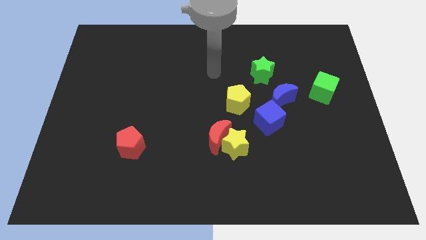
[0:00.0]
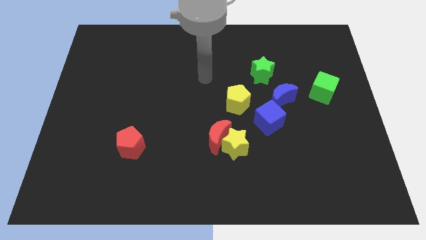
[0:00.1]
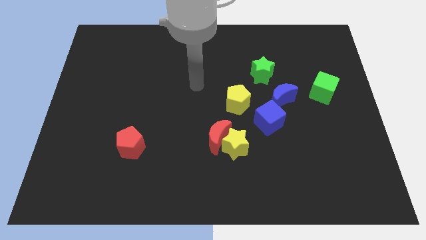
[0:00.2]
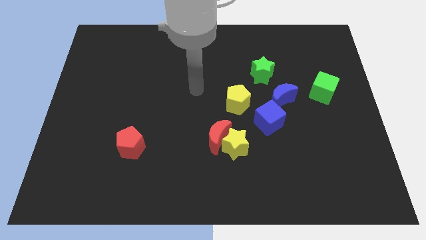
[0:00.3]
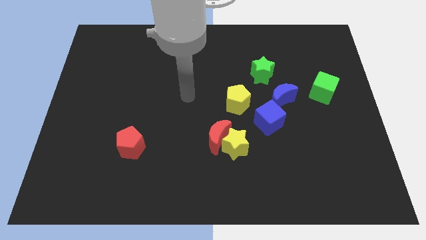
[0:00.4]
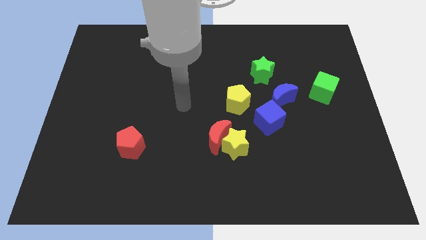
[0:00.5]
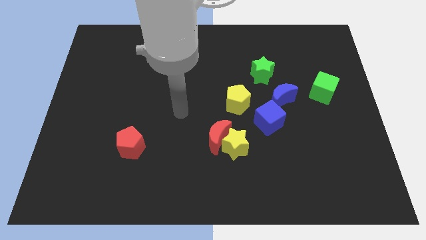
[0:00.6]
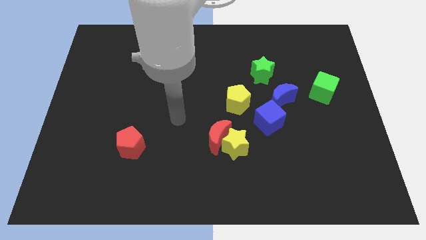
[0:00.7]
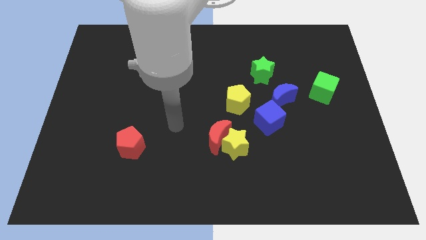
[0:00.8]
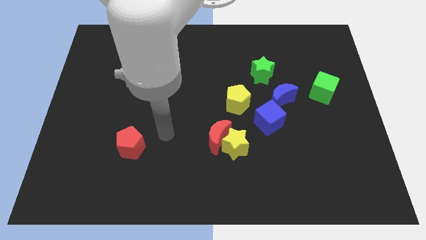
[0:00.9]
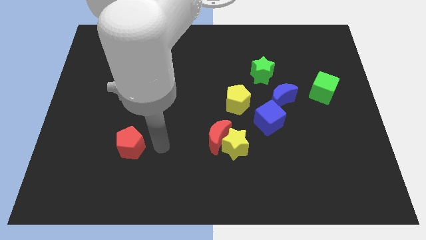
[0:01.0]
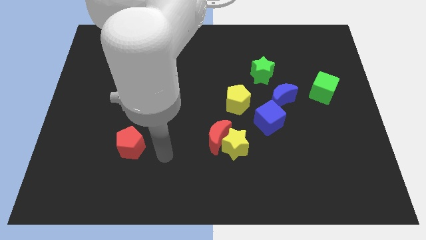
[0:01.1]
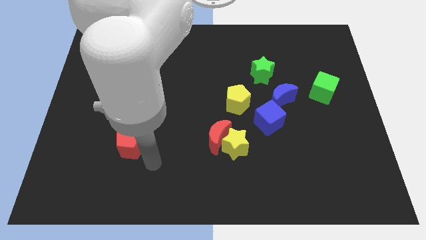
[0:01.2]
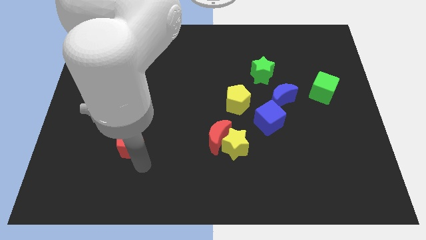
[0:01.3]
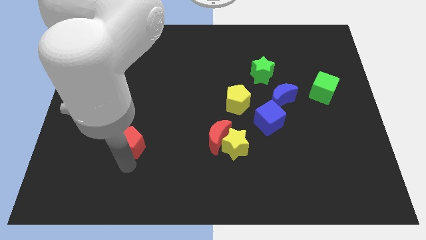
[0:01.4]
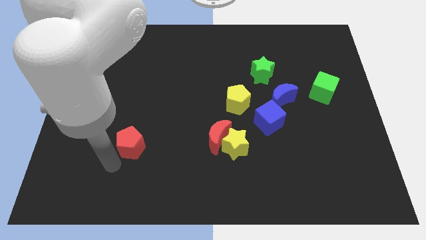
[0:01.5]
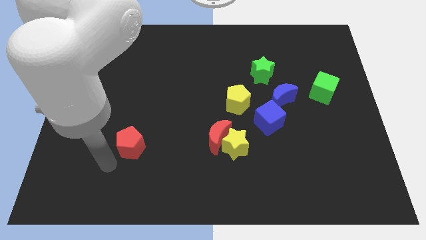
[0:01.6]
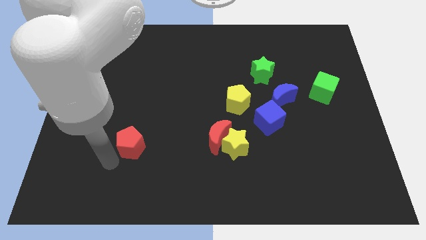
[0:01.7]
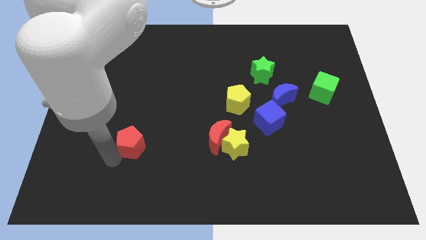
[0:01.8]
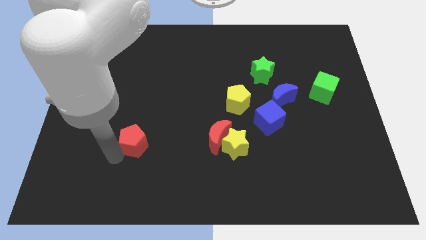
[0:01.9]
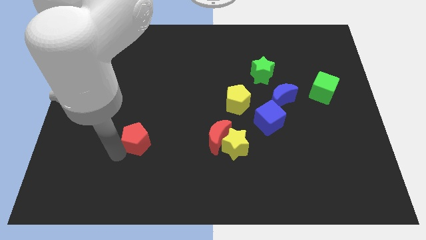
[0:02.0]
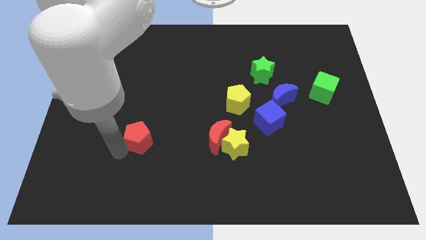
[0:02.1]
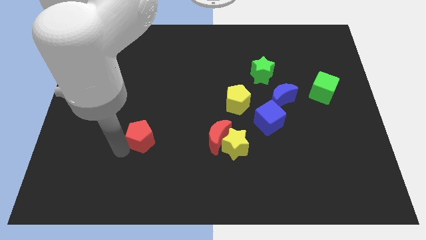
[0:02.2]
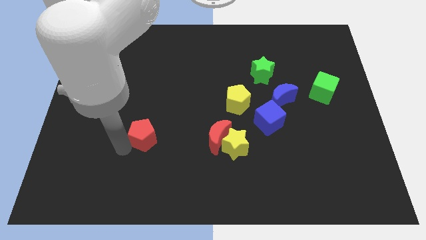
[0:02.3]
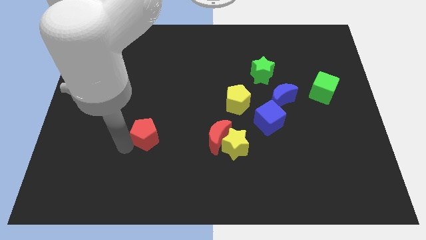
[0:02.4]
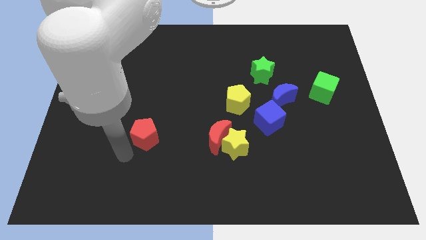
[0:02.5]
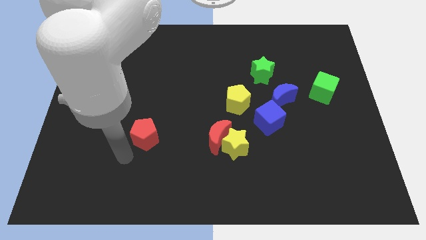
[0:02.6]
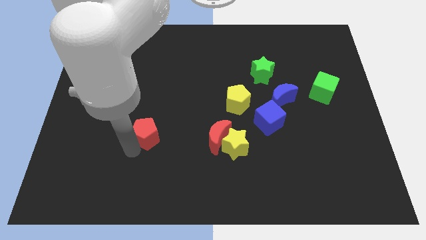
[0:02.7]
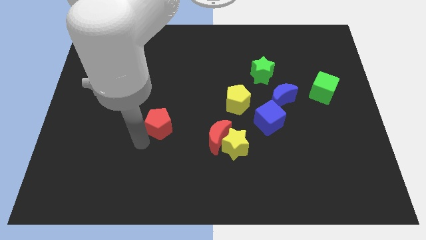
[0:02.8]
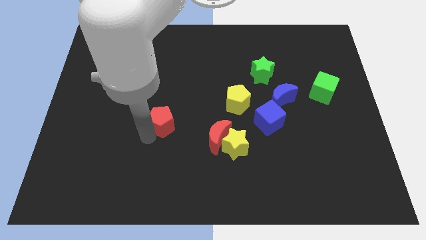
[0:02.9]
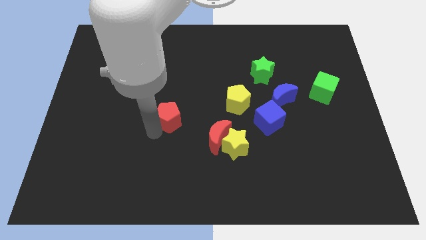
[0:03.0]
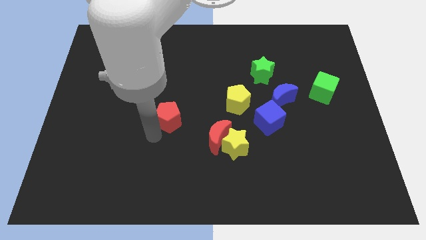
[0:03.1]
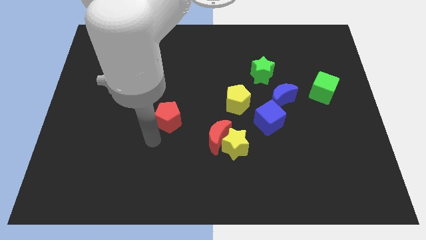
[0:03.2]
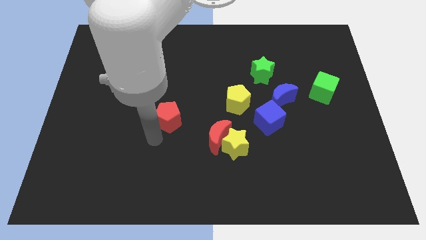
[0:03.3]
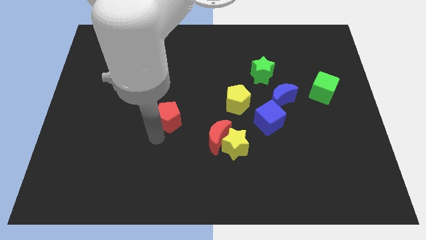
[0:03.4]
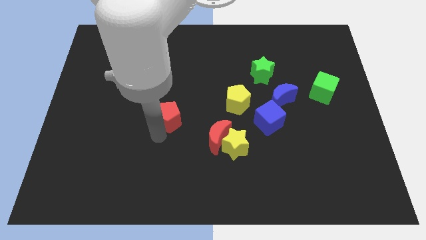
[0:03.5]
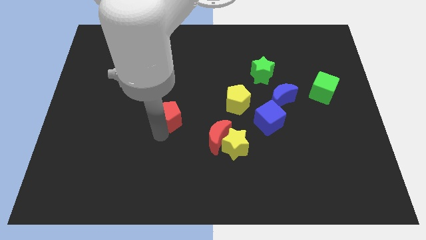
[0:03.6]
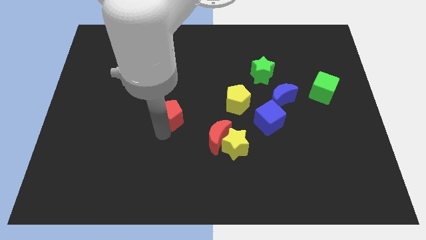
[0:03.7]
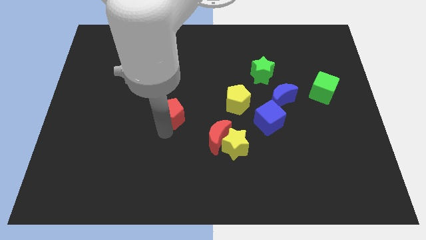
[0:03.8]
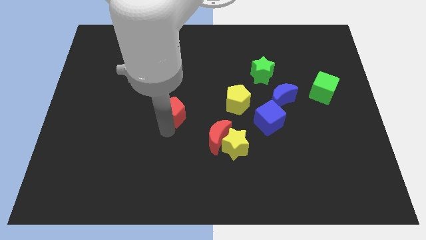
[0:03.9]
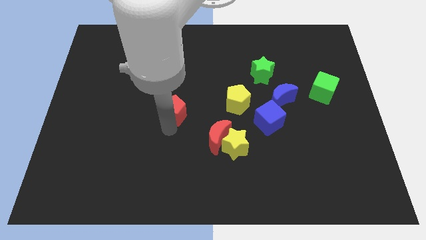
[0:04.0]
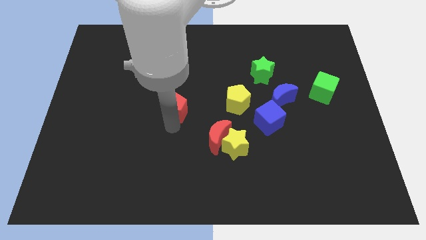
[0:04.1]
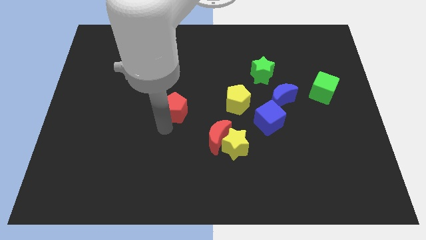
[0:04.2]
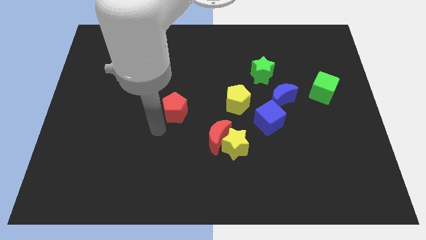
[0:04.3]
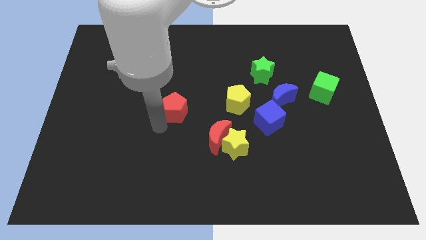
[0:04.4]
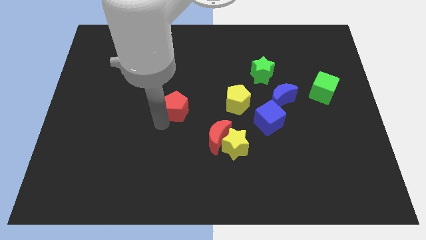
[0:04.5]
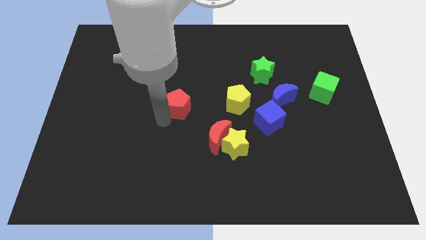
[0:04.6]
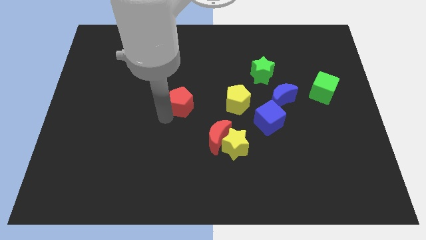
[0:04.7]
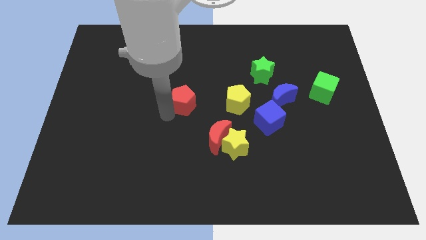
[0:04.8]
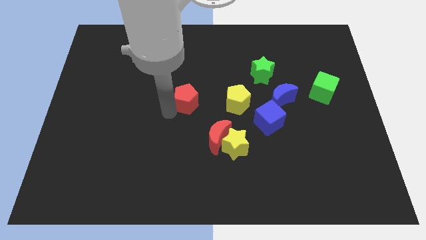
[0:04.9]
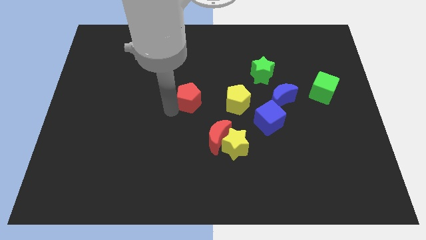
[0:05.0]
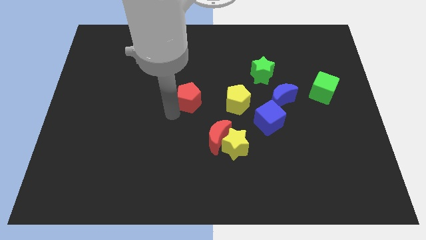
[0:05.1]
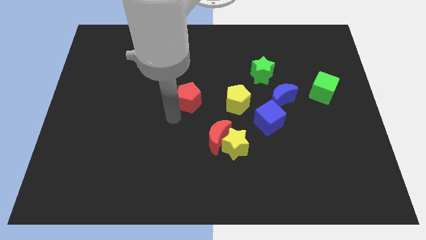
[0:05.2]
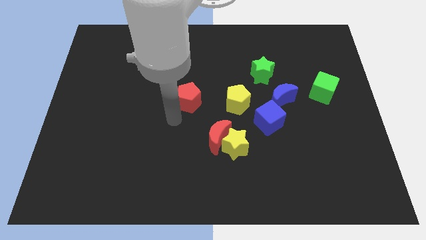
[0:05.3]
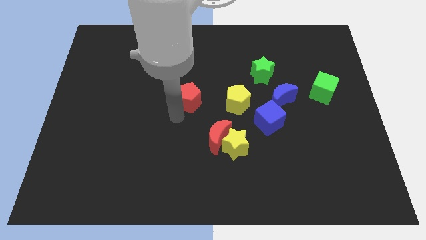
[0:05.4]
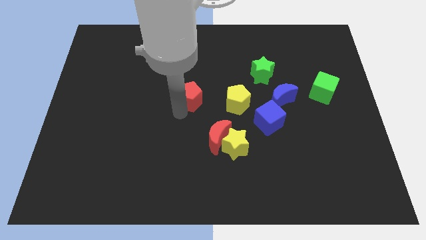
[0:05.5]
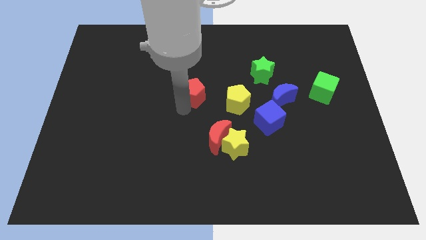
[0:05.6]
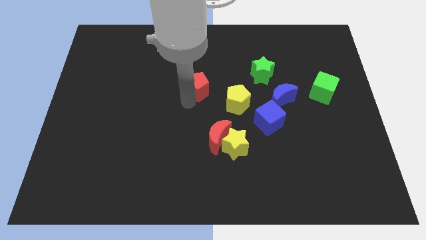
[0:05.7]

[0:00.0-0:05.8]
push the red pentagon diagonally up and to the right

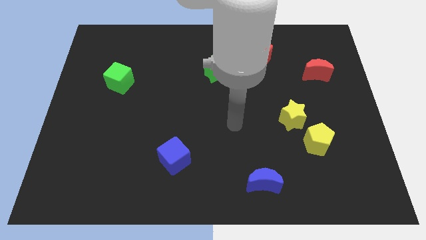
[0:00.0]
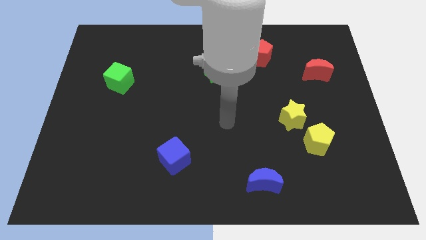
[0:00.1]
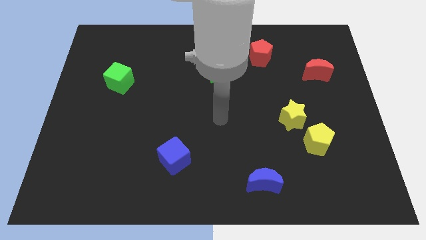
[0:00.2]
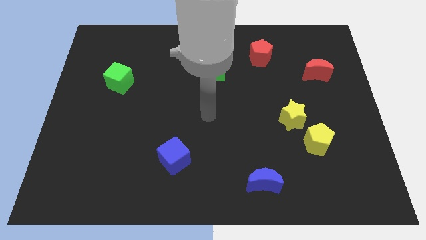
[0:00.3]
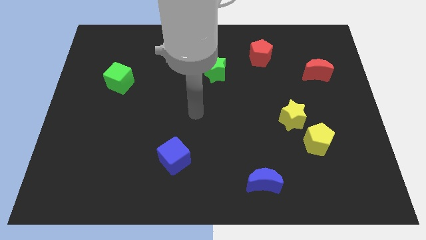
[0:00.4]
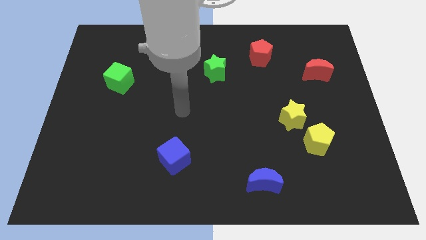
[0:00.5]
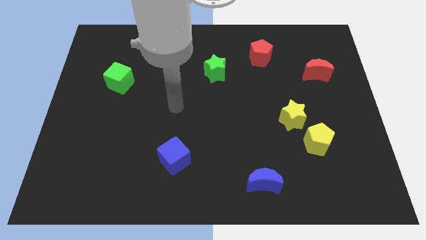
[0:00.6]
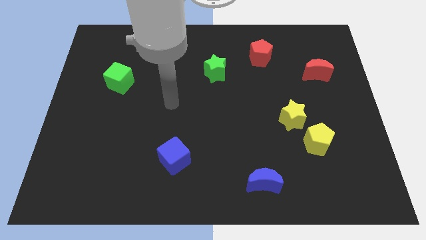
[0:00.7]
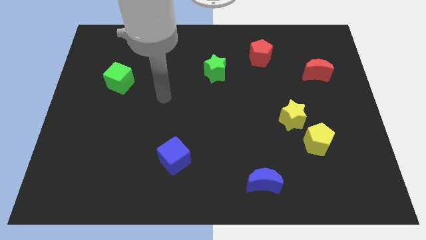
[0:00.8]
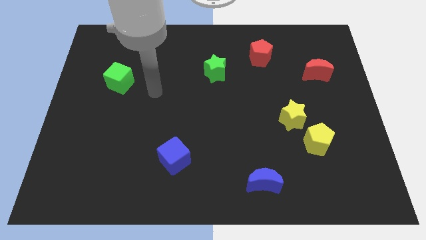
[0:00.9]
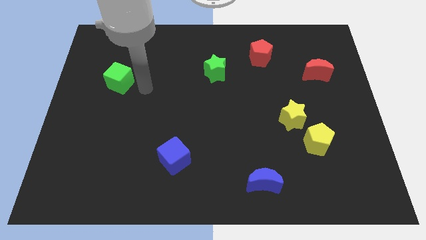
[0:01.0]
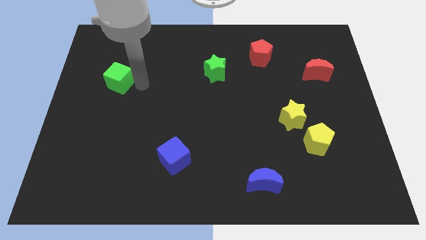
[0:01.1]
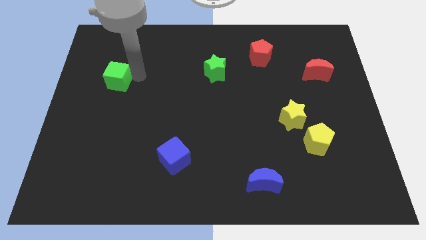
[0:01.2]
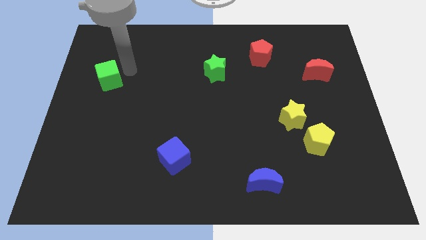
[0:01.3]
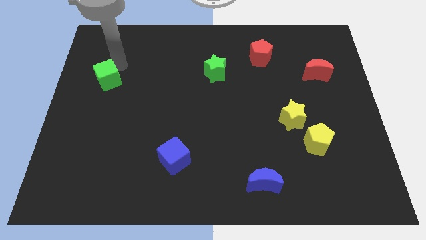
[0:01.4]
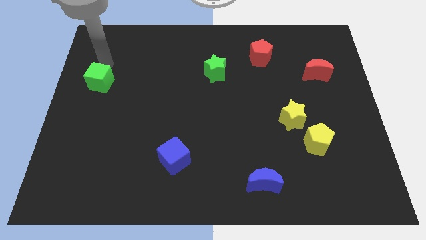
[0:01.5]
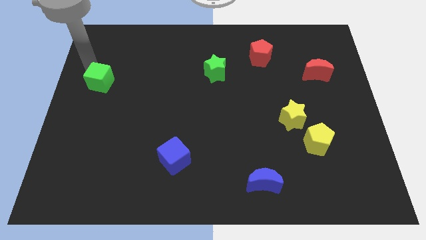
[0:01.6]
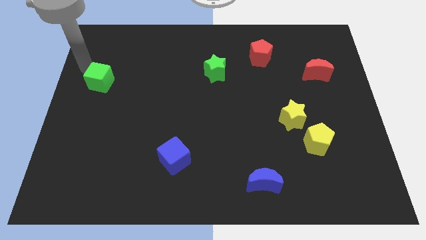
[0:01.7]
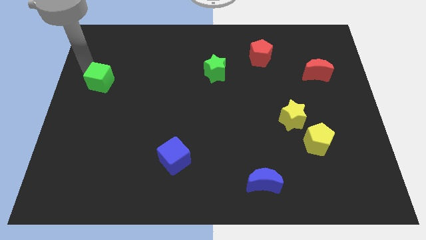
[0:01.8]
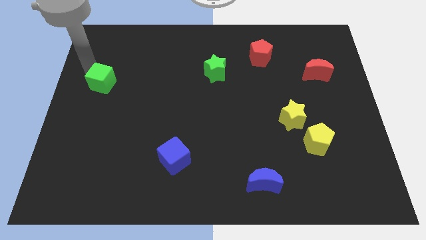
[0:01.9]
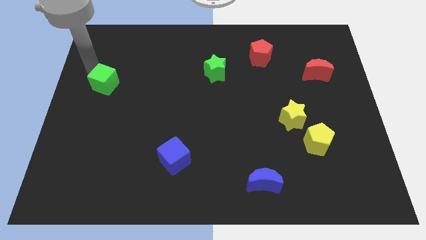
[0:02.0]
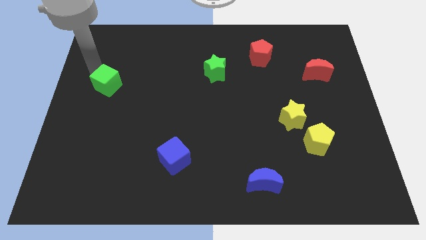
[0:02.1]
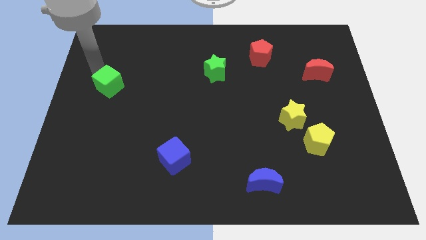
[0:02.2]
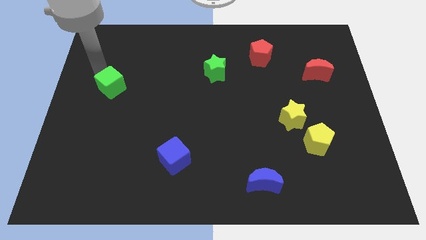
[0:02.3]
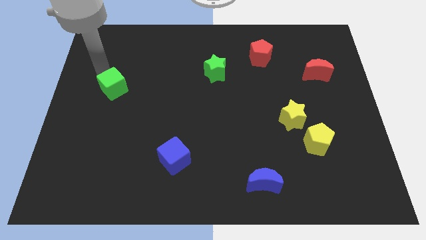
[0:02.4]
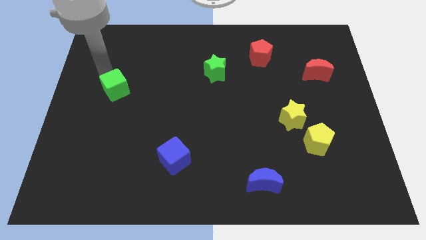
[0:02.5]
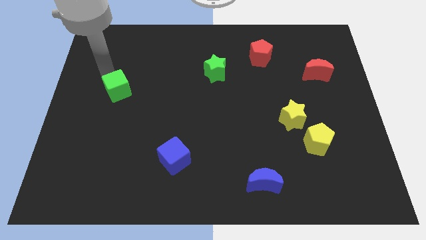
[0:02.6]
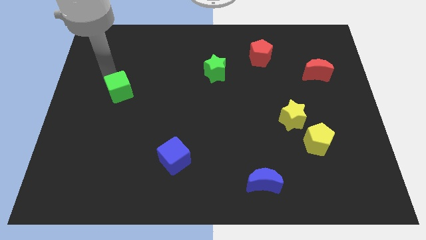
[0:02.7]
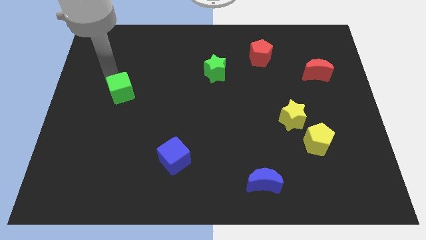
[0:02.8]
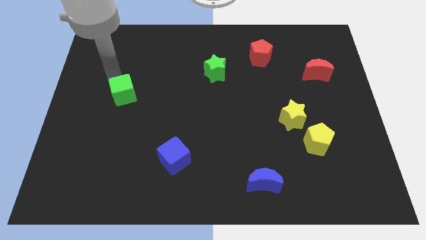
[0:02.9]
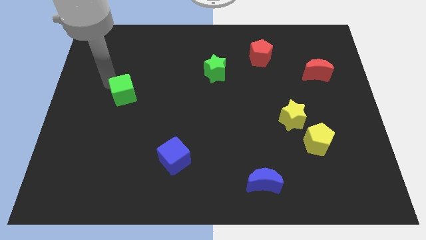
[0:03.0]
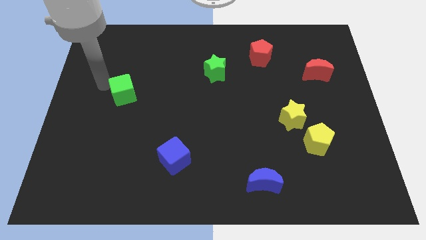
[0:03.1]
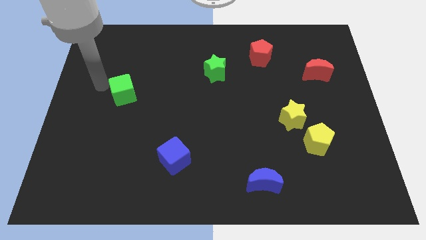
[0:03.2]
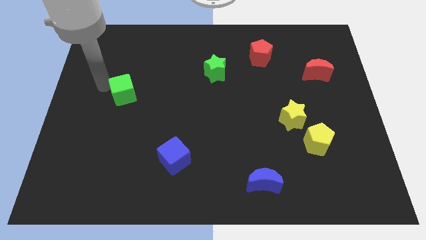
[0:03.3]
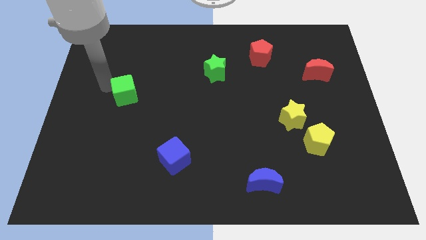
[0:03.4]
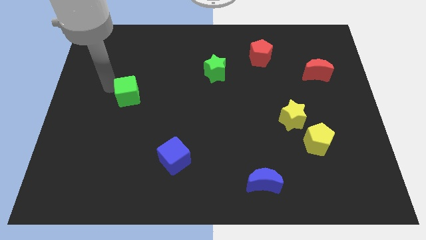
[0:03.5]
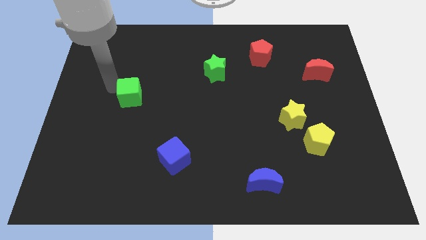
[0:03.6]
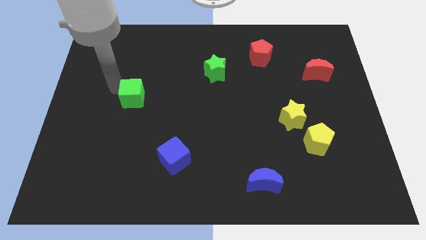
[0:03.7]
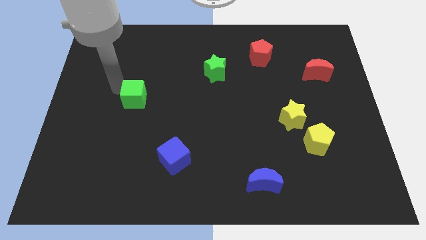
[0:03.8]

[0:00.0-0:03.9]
slightly move the green cube diagonally downwards and to the right
